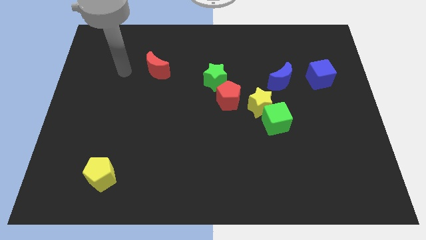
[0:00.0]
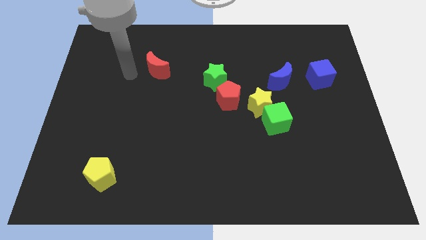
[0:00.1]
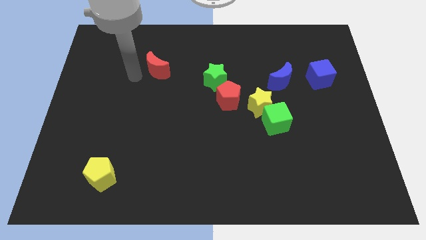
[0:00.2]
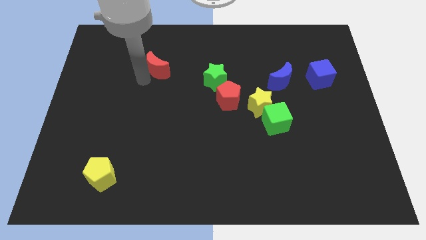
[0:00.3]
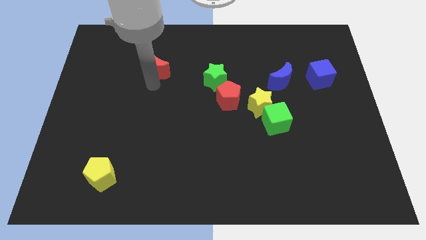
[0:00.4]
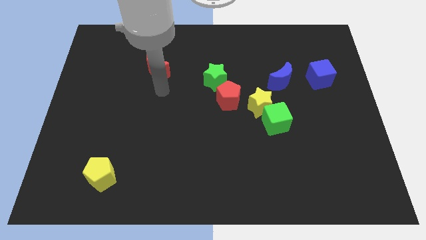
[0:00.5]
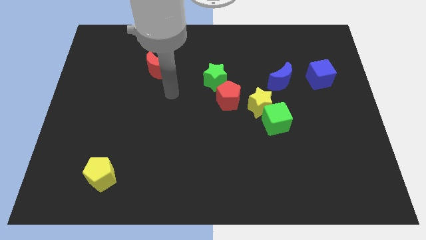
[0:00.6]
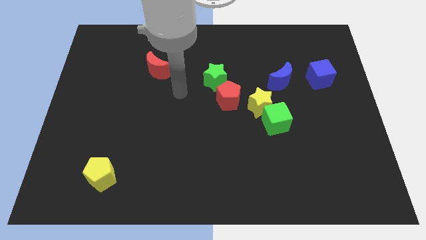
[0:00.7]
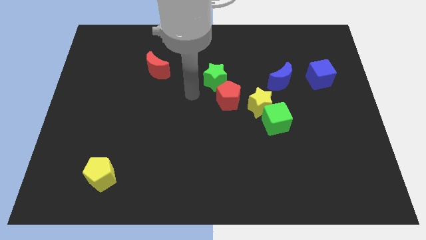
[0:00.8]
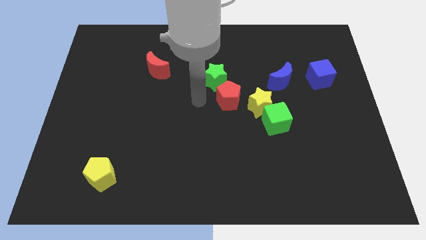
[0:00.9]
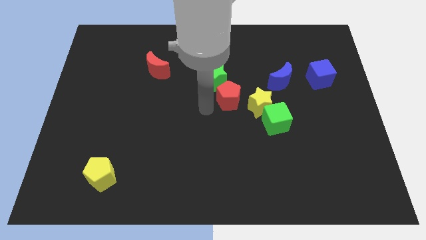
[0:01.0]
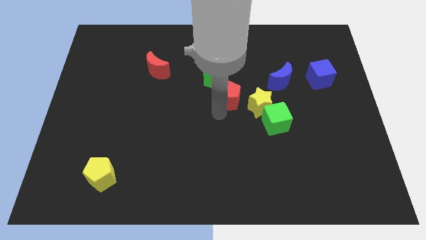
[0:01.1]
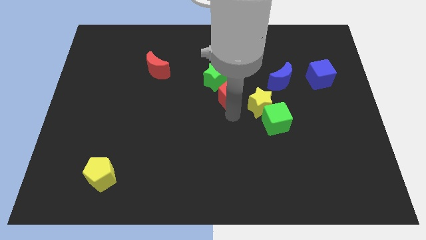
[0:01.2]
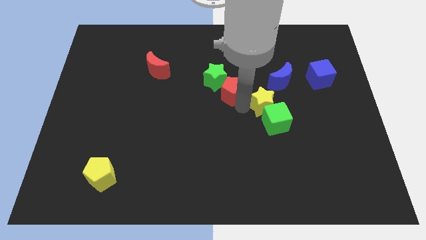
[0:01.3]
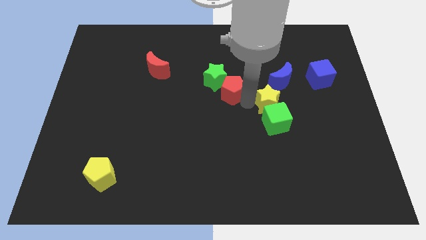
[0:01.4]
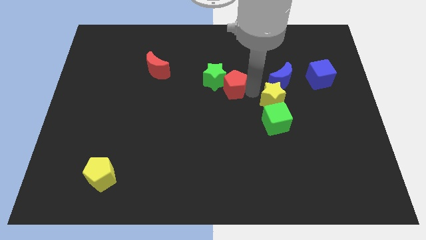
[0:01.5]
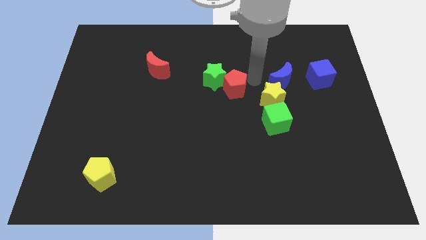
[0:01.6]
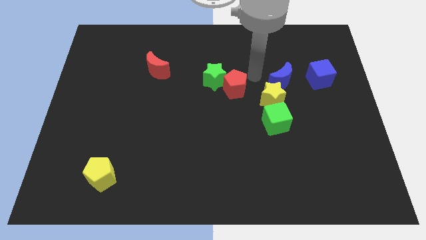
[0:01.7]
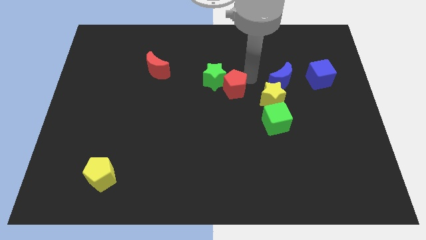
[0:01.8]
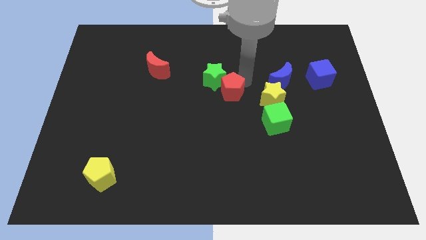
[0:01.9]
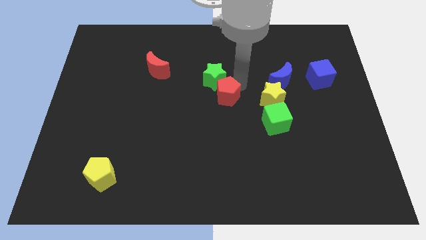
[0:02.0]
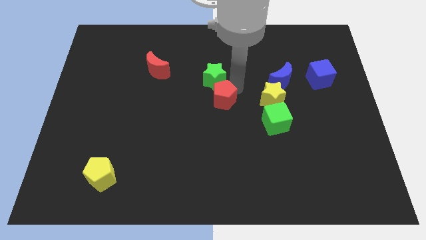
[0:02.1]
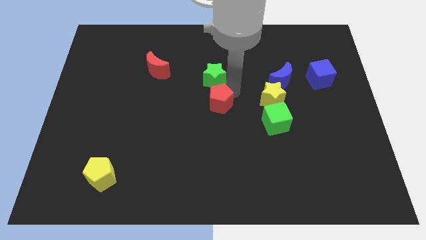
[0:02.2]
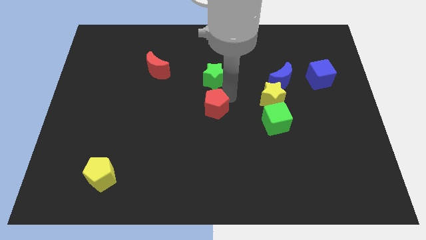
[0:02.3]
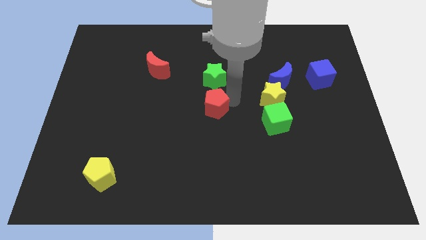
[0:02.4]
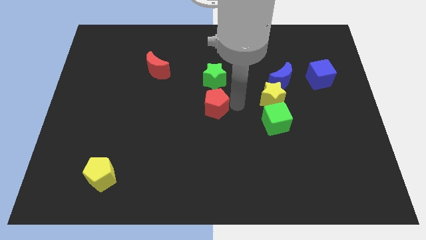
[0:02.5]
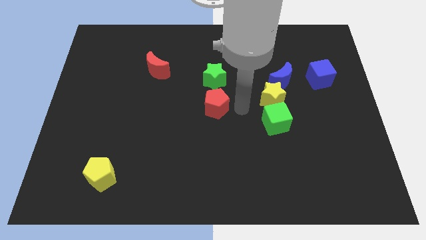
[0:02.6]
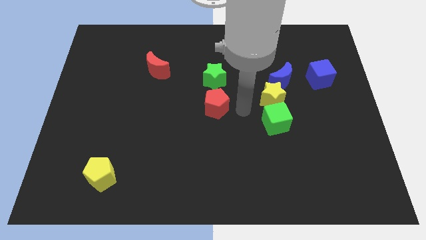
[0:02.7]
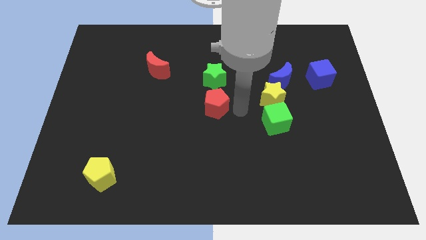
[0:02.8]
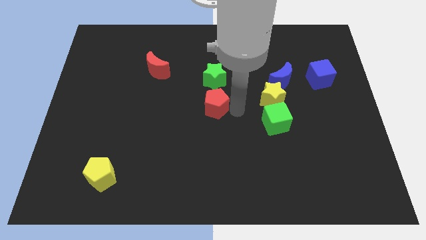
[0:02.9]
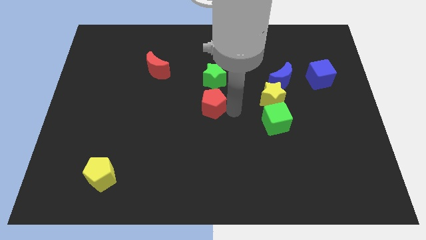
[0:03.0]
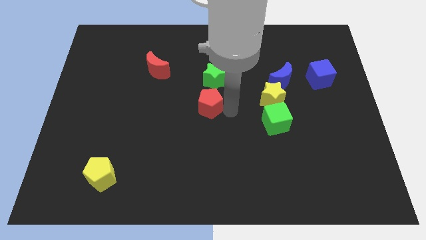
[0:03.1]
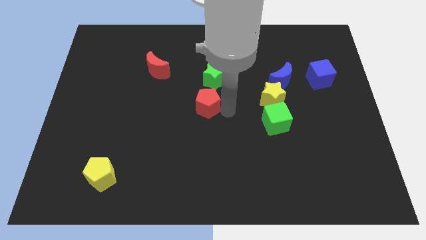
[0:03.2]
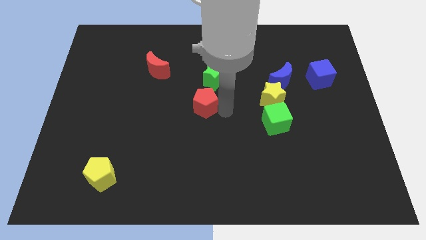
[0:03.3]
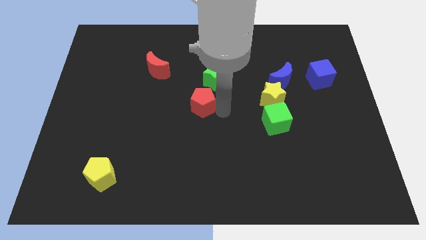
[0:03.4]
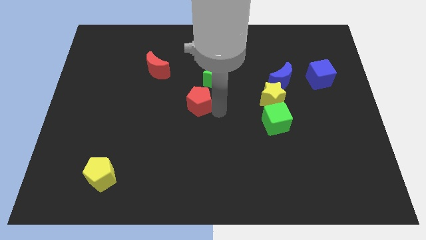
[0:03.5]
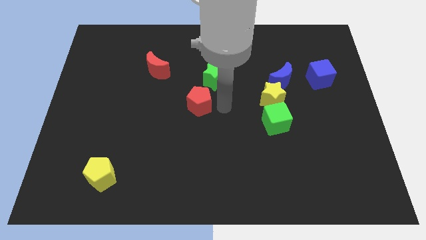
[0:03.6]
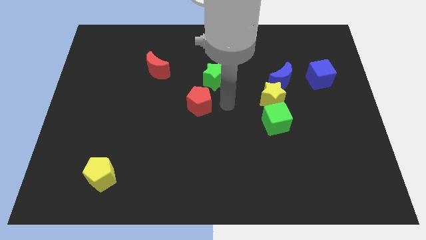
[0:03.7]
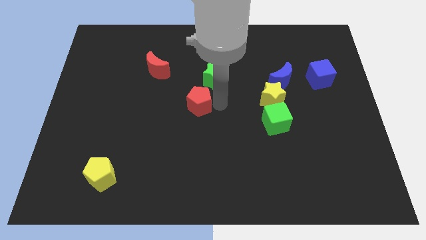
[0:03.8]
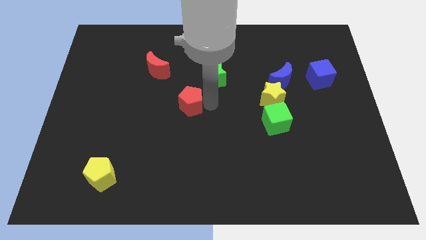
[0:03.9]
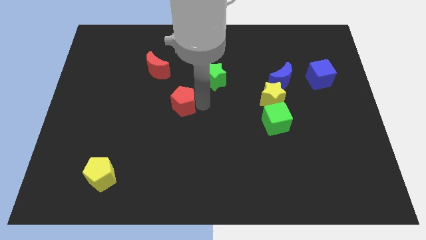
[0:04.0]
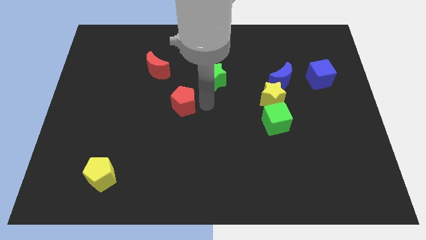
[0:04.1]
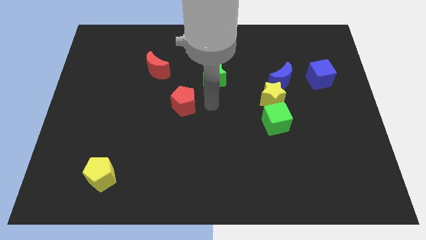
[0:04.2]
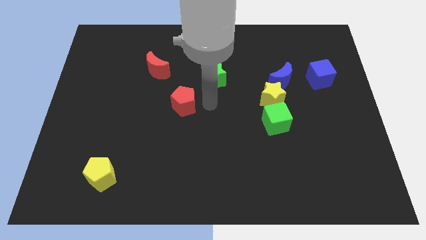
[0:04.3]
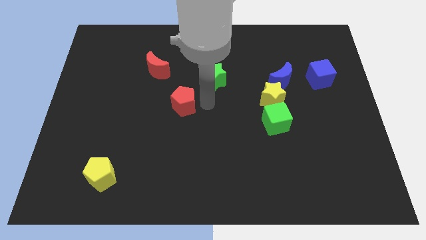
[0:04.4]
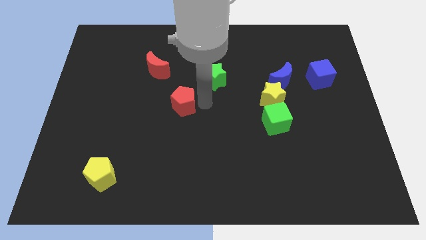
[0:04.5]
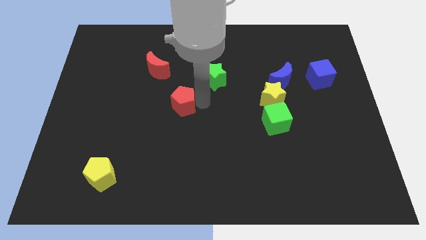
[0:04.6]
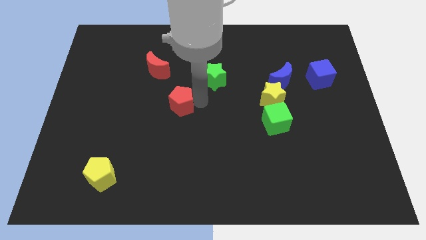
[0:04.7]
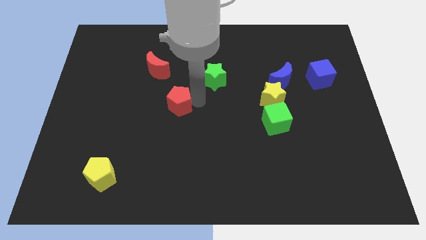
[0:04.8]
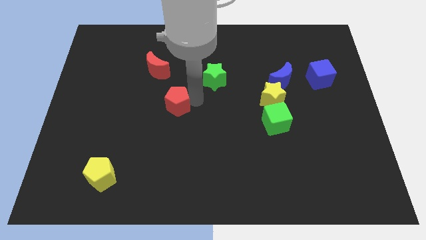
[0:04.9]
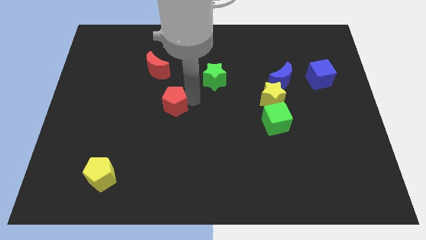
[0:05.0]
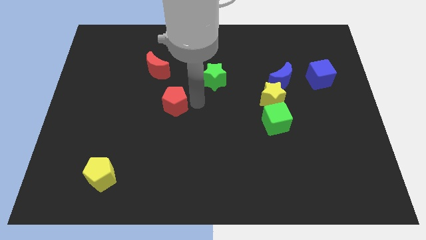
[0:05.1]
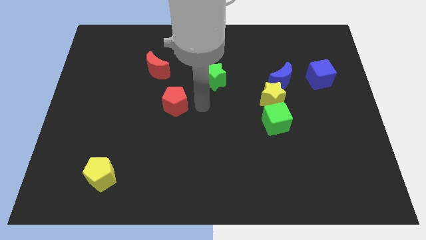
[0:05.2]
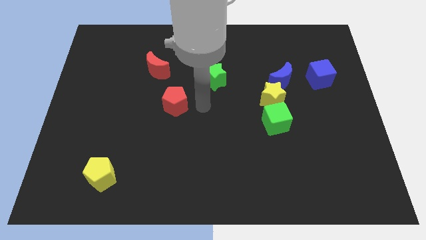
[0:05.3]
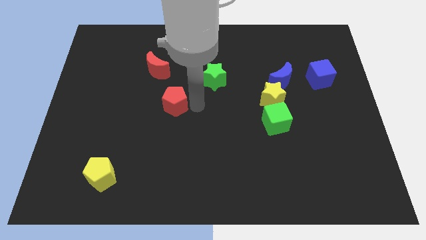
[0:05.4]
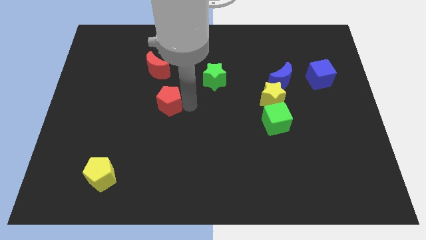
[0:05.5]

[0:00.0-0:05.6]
slide the red pentagon to the bottom of the red moon

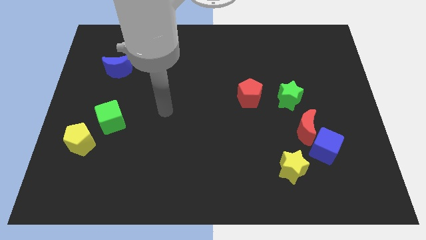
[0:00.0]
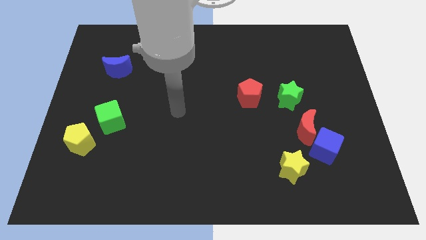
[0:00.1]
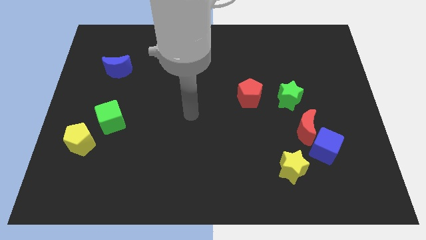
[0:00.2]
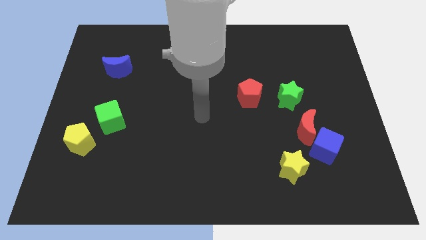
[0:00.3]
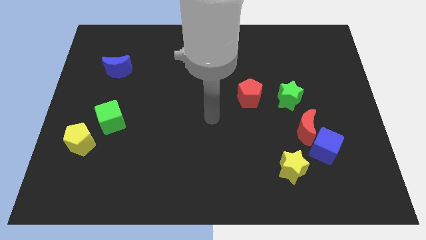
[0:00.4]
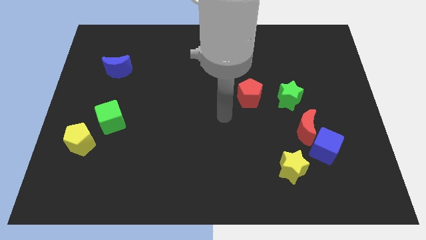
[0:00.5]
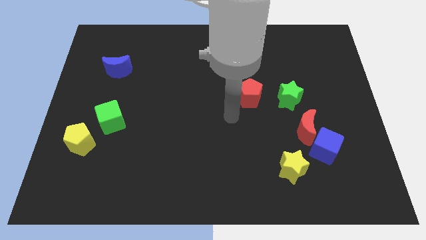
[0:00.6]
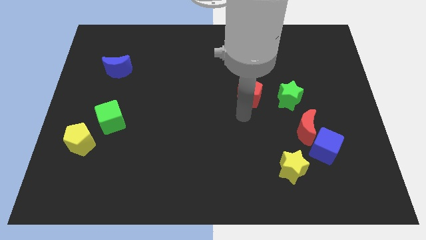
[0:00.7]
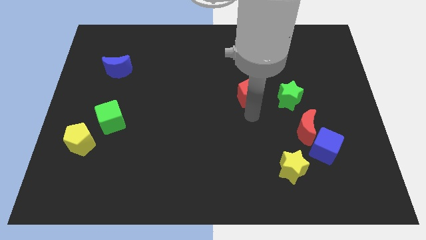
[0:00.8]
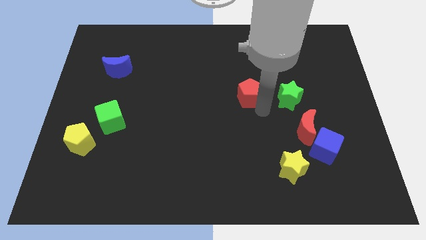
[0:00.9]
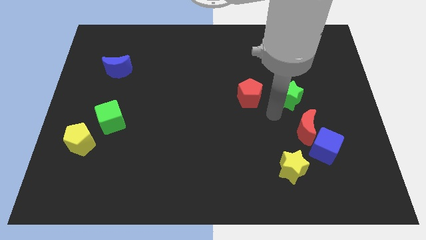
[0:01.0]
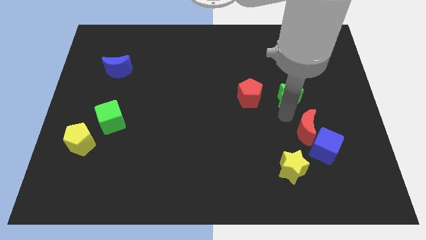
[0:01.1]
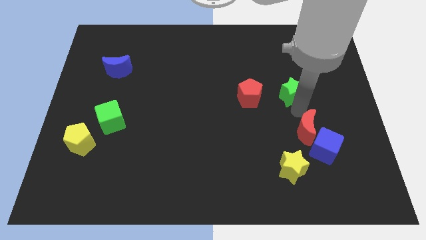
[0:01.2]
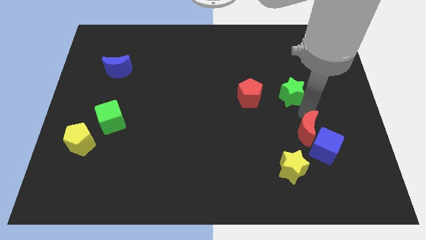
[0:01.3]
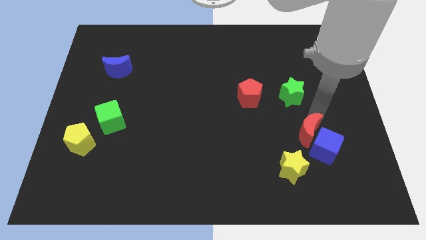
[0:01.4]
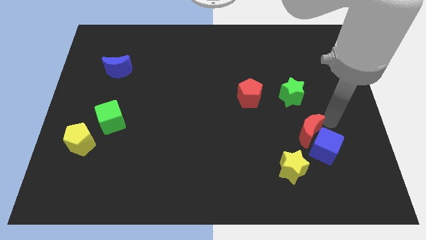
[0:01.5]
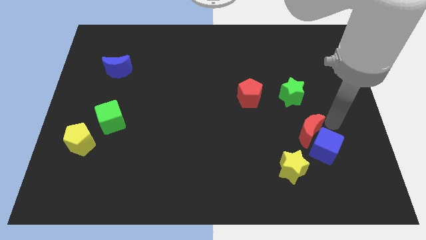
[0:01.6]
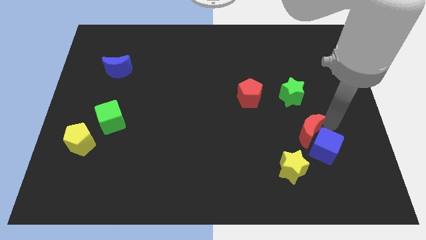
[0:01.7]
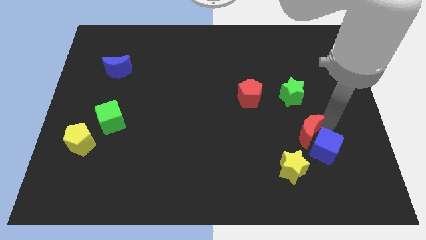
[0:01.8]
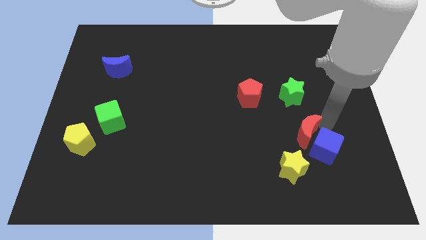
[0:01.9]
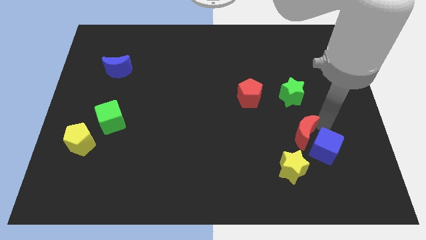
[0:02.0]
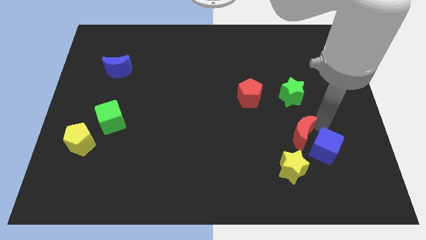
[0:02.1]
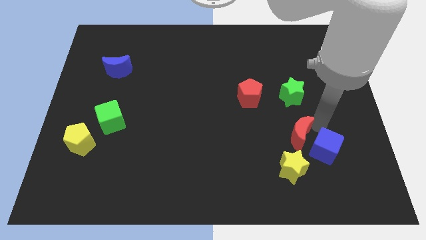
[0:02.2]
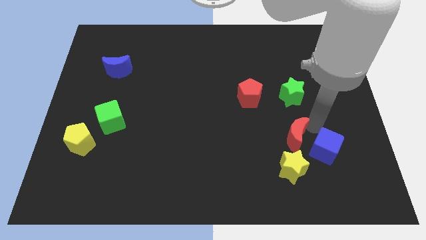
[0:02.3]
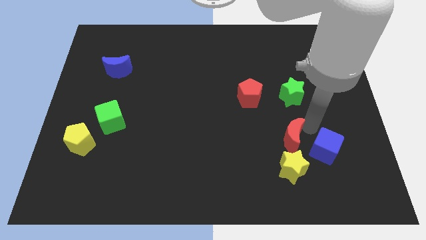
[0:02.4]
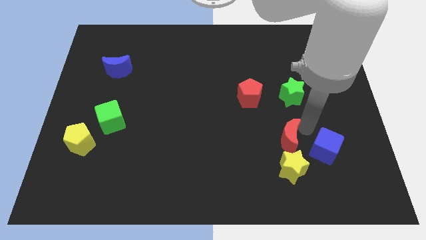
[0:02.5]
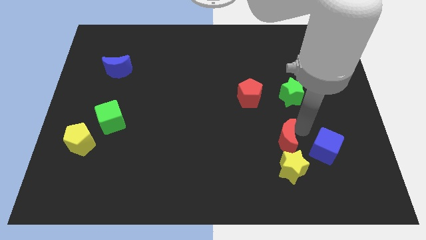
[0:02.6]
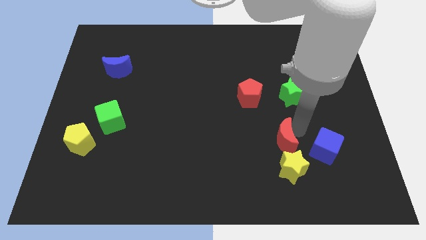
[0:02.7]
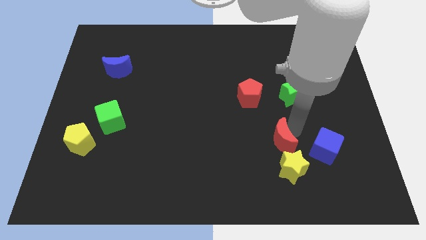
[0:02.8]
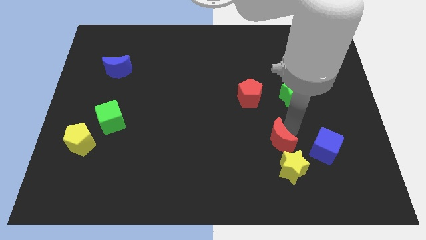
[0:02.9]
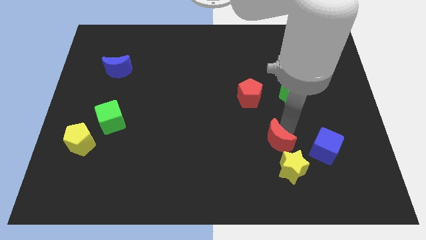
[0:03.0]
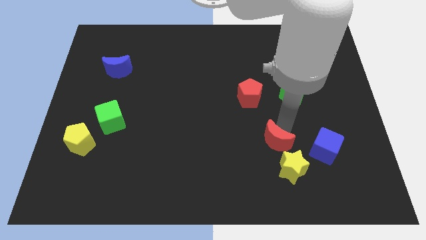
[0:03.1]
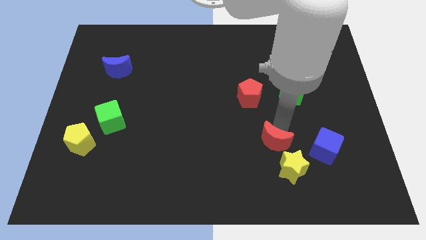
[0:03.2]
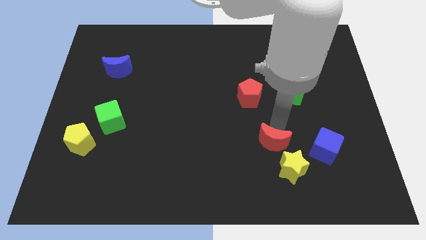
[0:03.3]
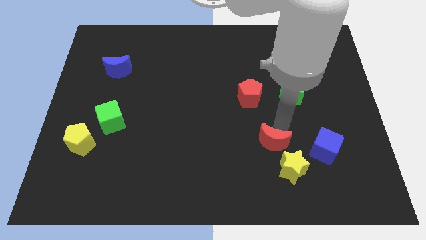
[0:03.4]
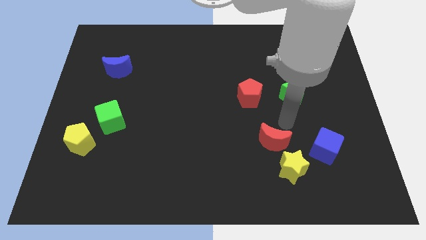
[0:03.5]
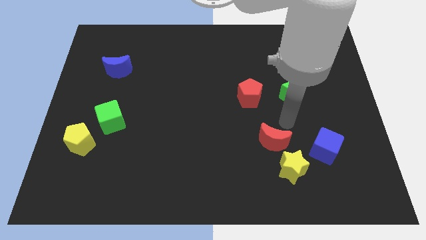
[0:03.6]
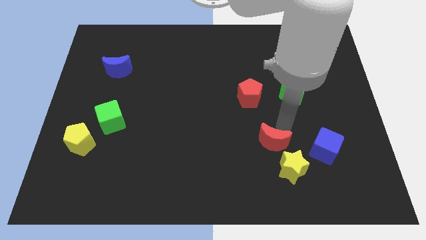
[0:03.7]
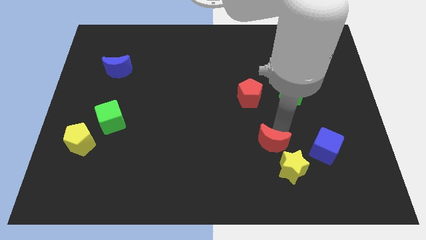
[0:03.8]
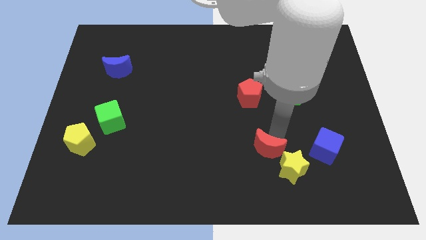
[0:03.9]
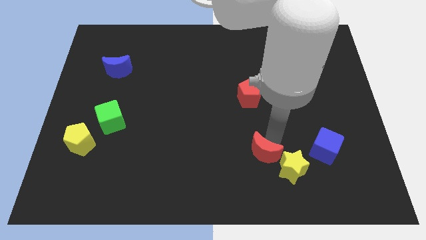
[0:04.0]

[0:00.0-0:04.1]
move the red moon to the left of the yellow star
